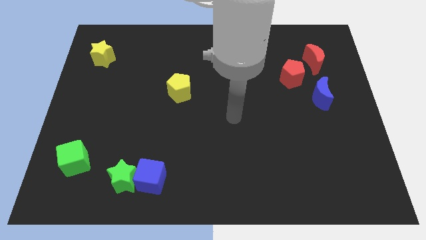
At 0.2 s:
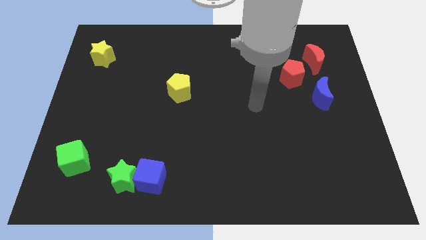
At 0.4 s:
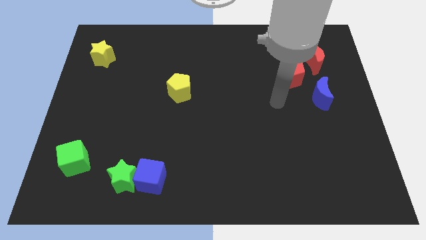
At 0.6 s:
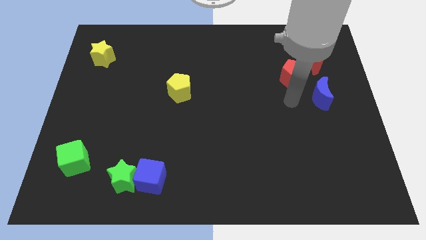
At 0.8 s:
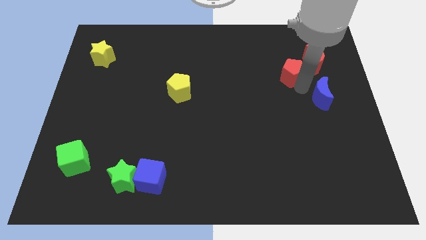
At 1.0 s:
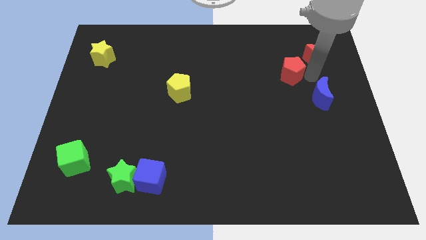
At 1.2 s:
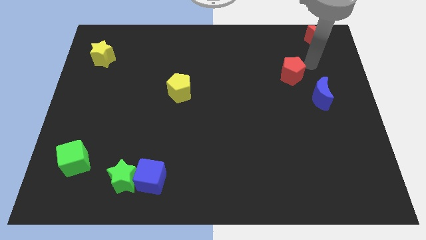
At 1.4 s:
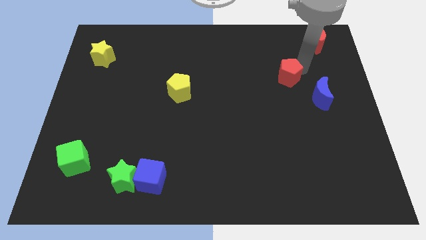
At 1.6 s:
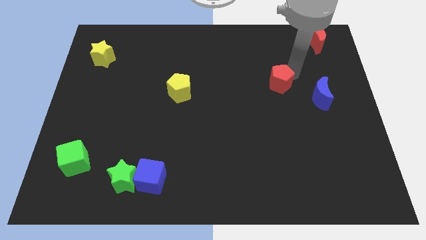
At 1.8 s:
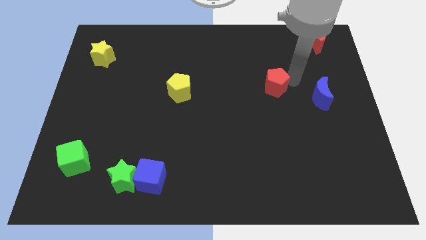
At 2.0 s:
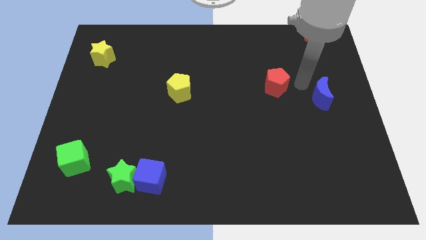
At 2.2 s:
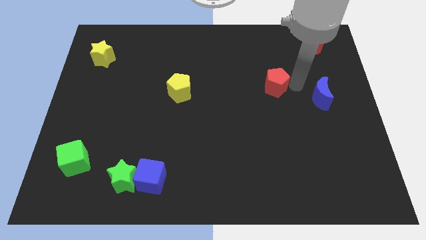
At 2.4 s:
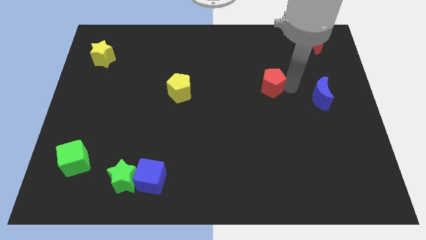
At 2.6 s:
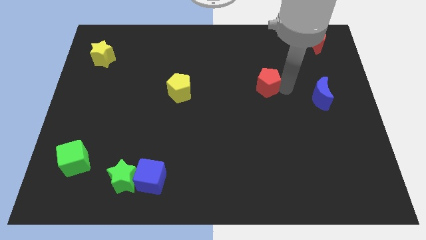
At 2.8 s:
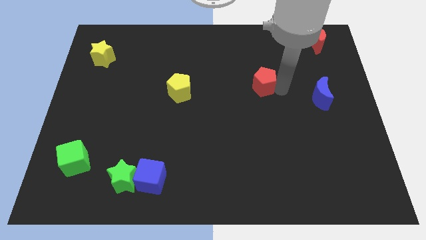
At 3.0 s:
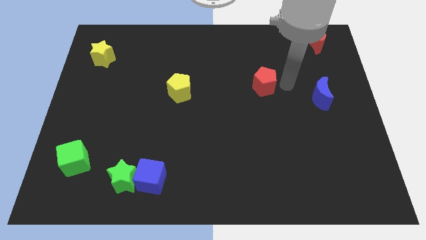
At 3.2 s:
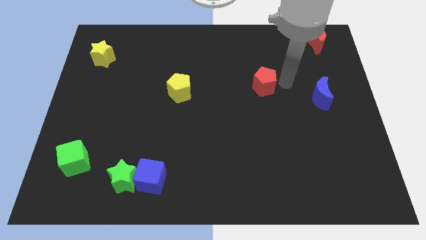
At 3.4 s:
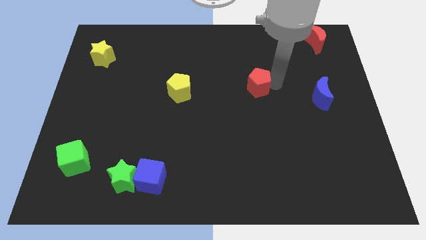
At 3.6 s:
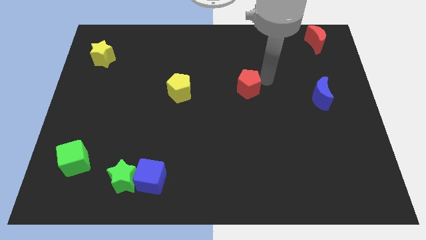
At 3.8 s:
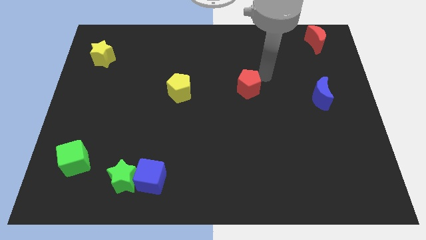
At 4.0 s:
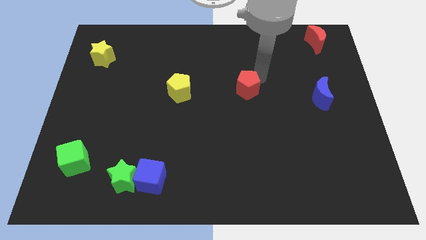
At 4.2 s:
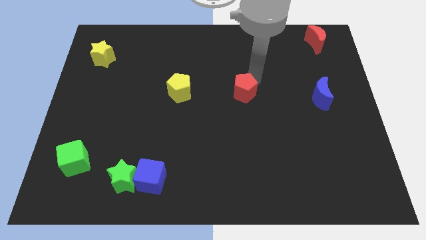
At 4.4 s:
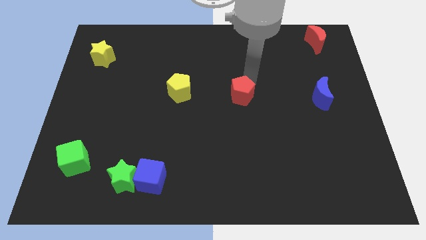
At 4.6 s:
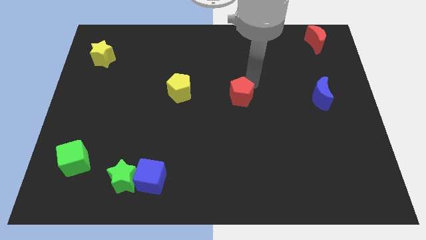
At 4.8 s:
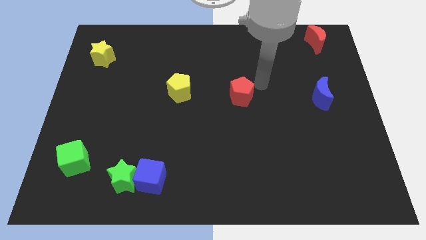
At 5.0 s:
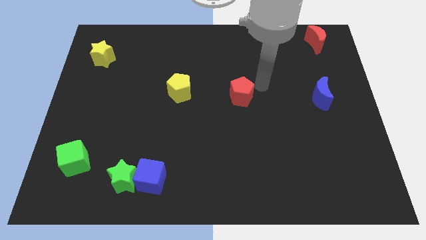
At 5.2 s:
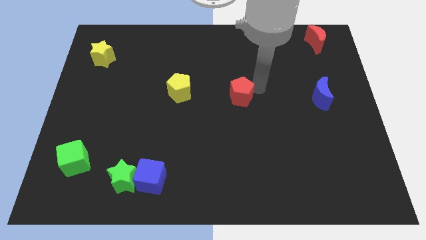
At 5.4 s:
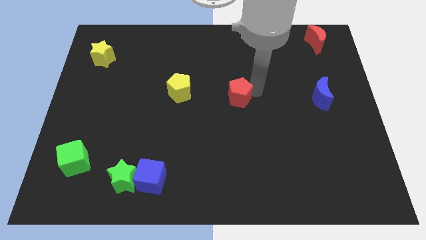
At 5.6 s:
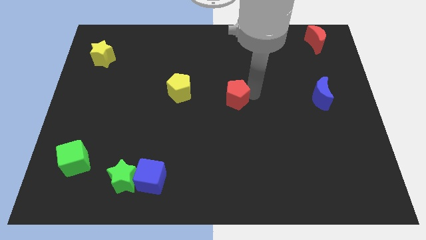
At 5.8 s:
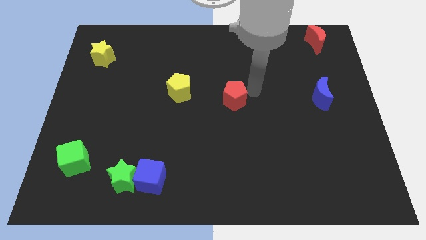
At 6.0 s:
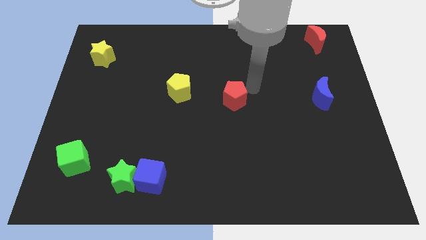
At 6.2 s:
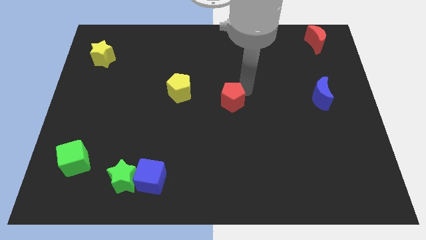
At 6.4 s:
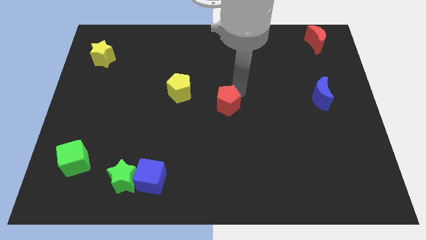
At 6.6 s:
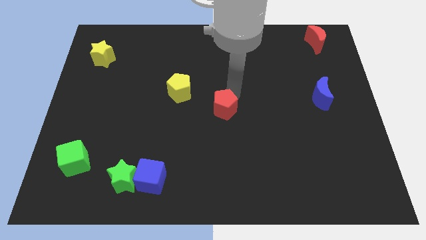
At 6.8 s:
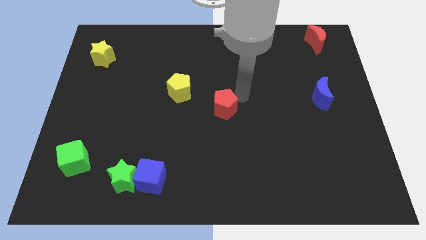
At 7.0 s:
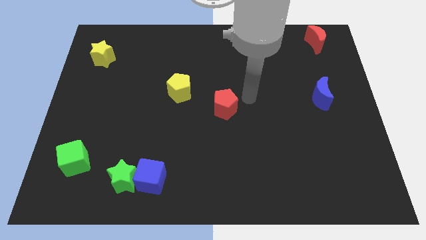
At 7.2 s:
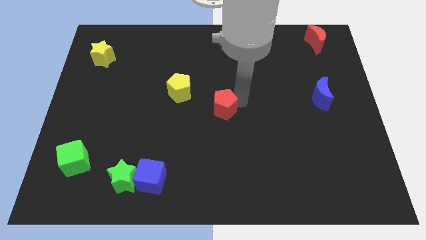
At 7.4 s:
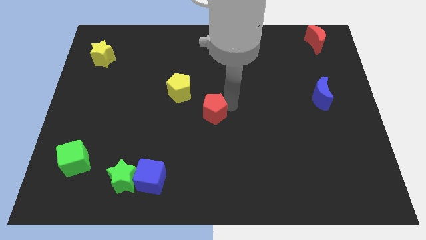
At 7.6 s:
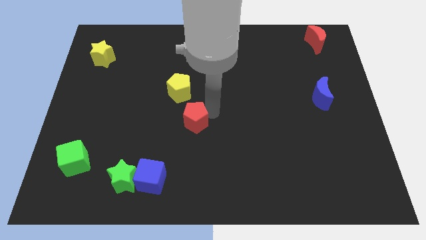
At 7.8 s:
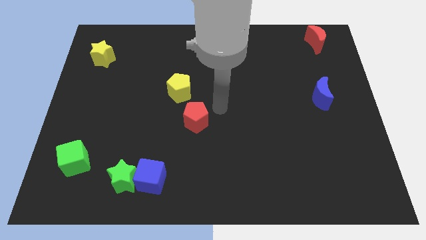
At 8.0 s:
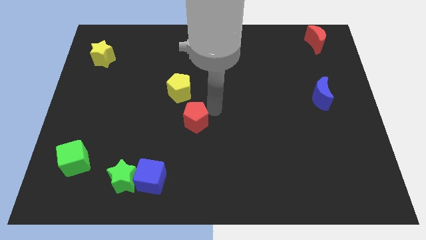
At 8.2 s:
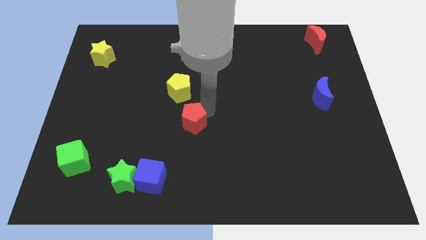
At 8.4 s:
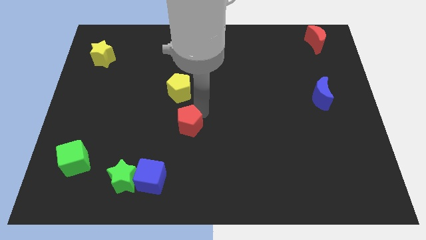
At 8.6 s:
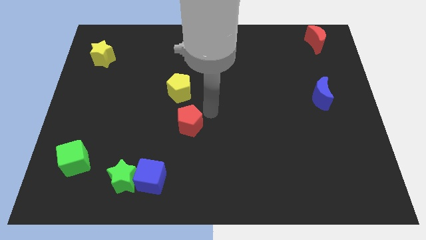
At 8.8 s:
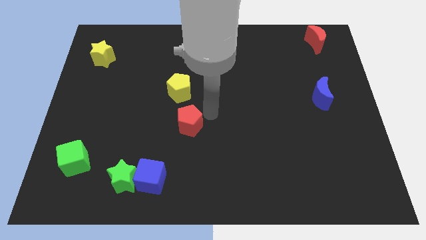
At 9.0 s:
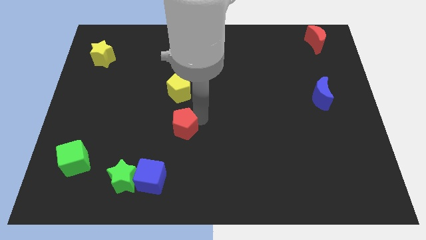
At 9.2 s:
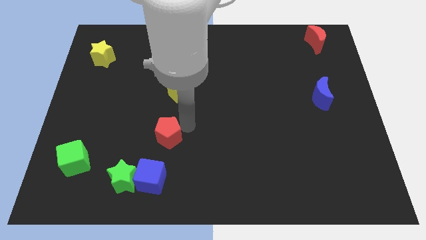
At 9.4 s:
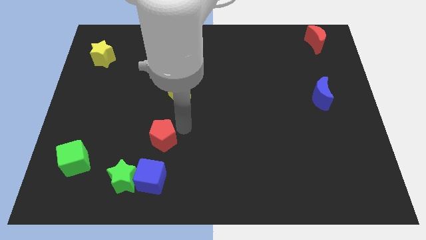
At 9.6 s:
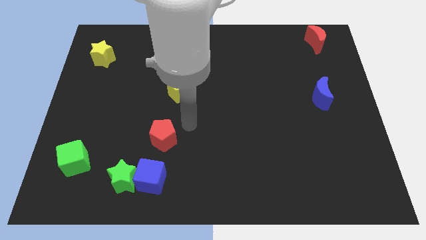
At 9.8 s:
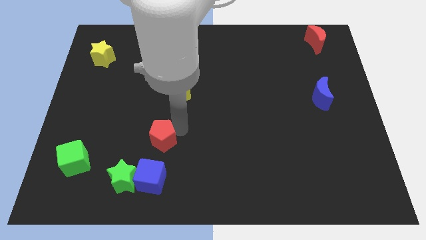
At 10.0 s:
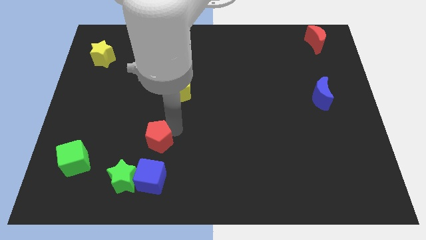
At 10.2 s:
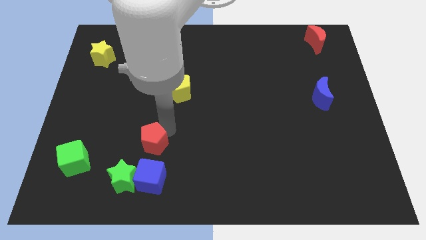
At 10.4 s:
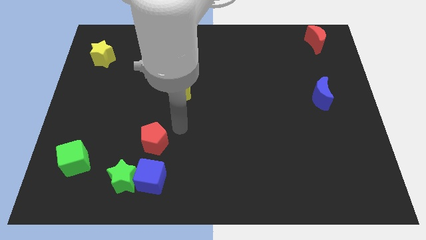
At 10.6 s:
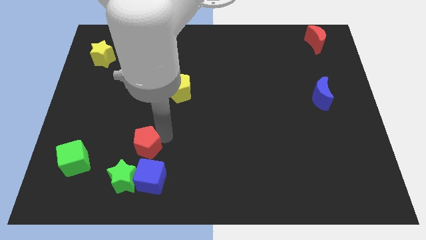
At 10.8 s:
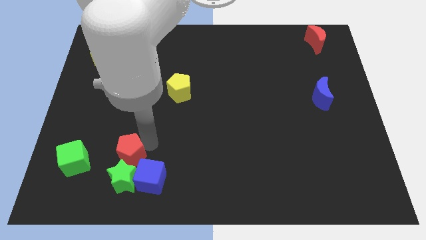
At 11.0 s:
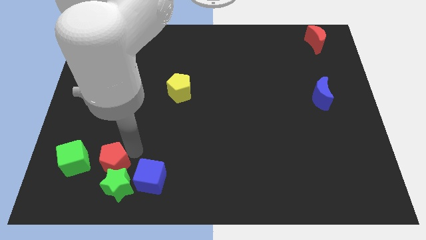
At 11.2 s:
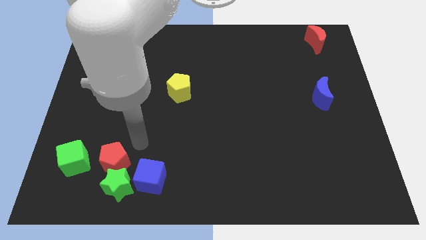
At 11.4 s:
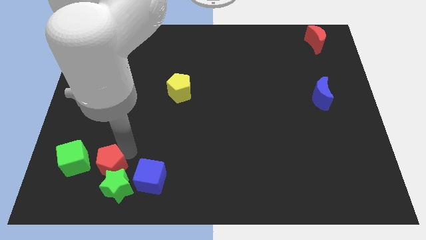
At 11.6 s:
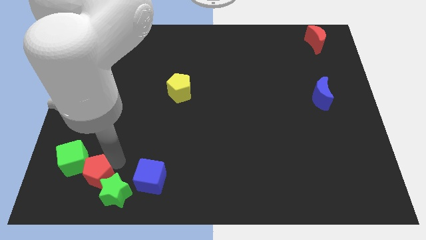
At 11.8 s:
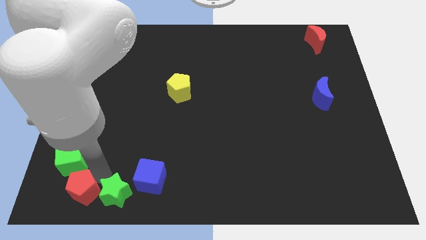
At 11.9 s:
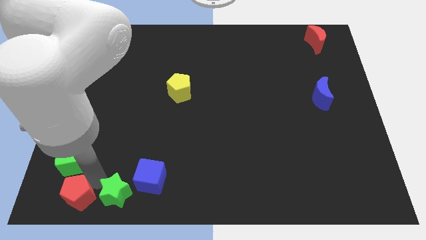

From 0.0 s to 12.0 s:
push the red pentagon to the lower left corner

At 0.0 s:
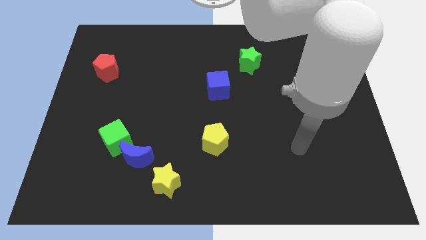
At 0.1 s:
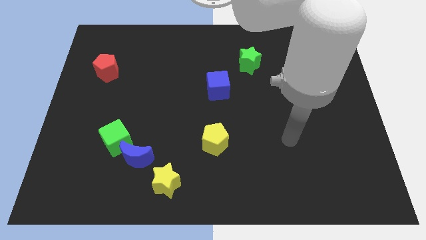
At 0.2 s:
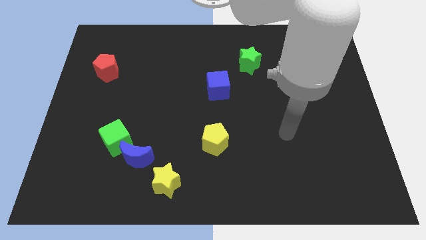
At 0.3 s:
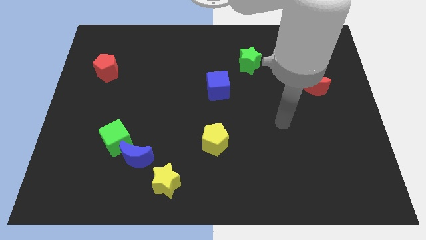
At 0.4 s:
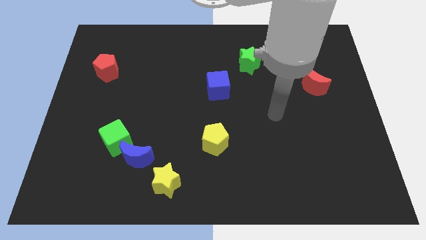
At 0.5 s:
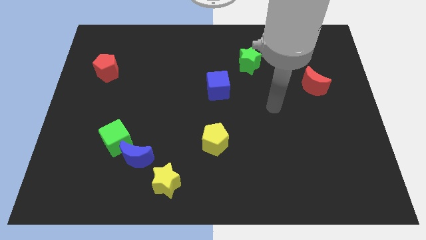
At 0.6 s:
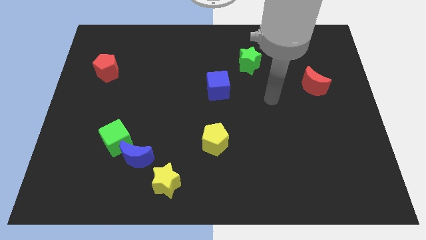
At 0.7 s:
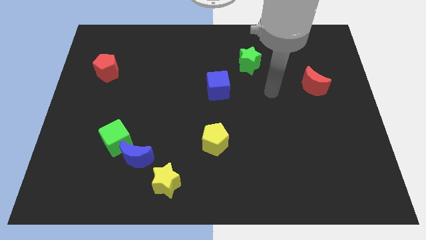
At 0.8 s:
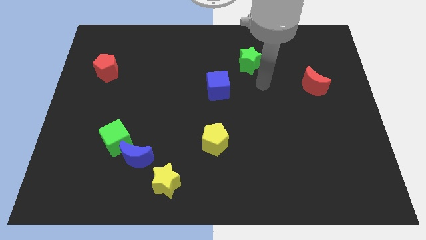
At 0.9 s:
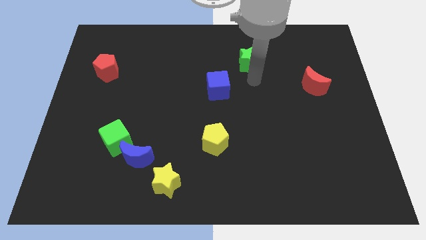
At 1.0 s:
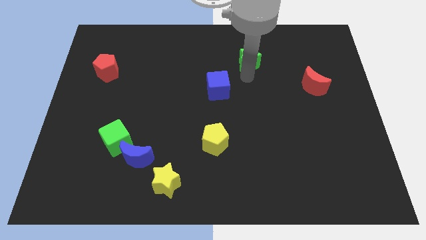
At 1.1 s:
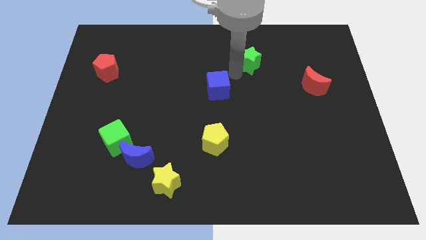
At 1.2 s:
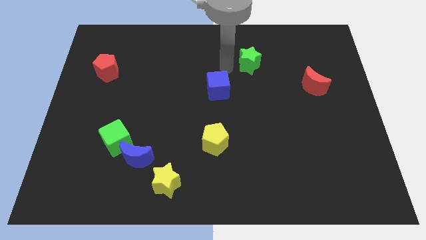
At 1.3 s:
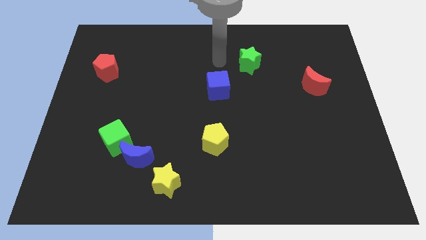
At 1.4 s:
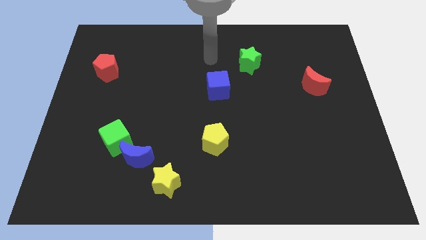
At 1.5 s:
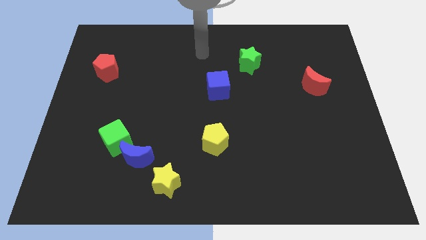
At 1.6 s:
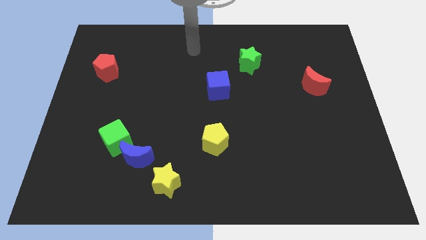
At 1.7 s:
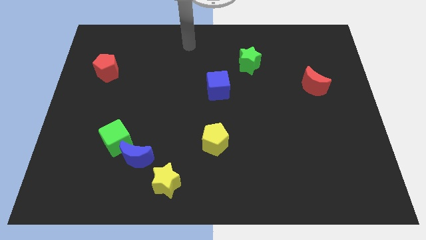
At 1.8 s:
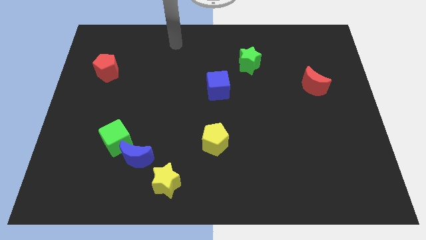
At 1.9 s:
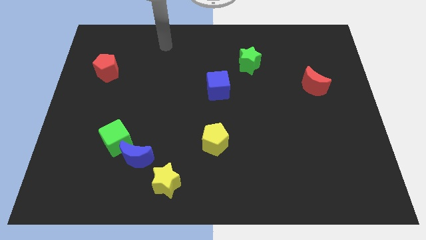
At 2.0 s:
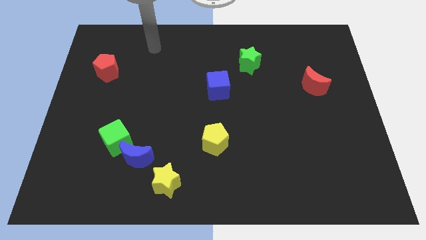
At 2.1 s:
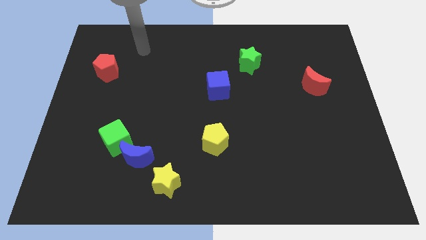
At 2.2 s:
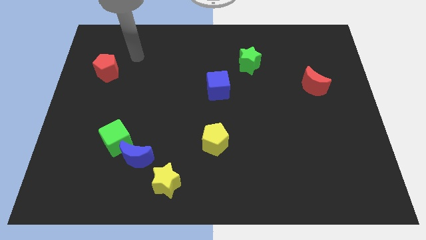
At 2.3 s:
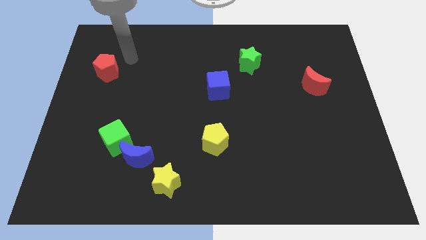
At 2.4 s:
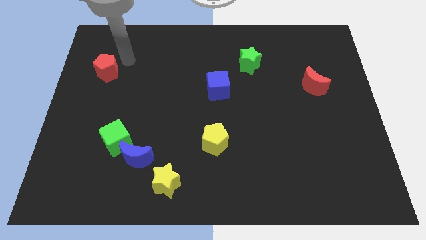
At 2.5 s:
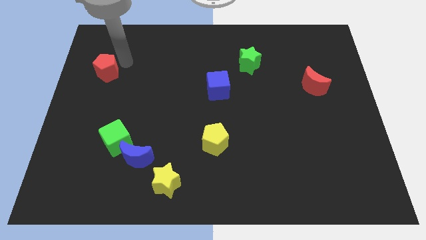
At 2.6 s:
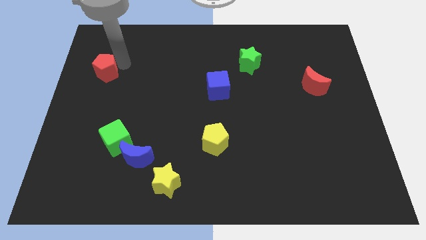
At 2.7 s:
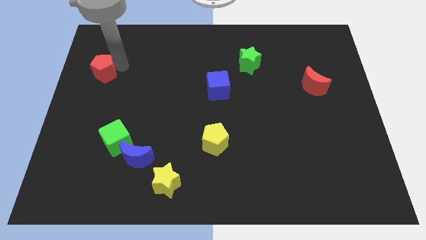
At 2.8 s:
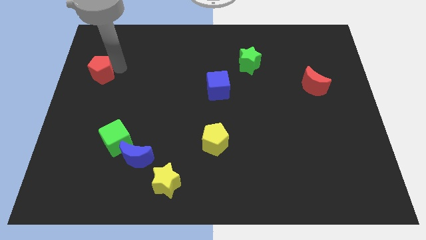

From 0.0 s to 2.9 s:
put the red pentagon to the left side of the board
